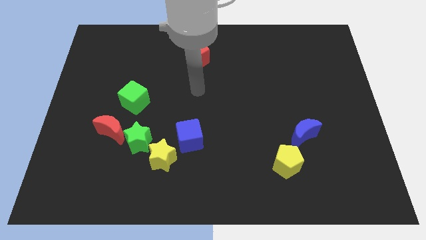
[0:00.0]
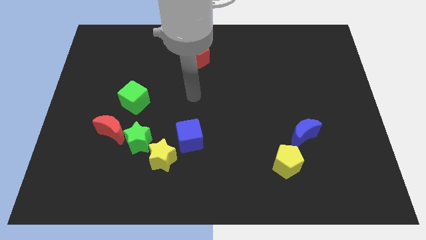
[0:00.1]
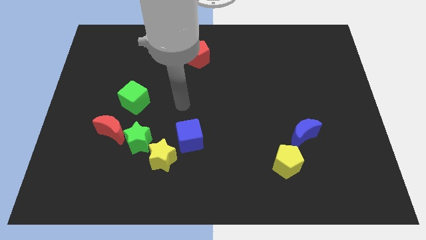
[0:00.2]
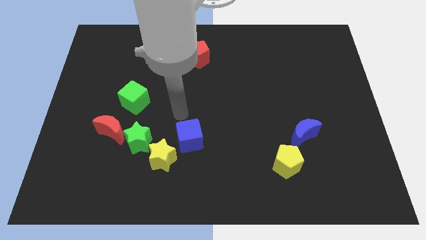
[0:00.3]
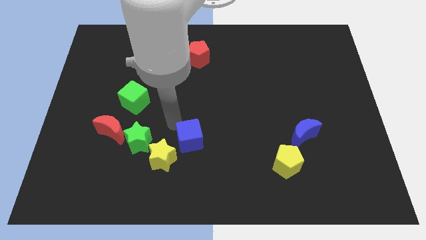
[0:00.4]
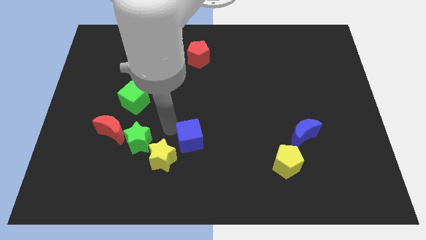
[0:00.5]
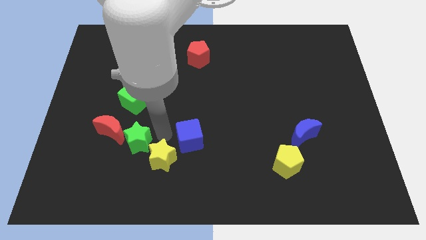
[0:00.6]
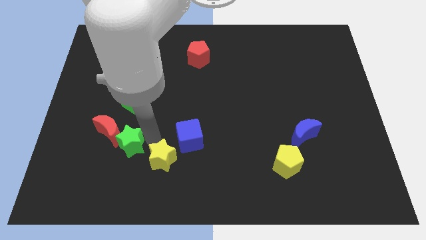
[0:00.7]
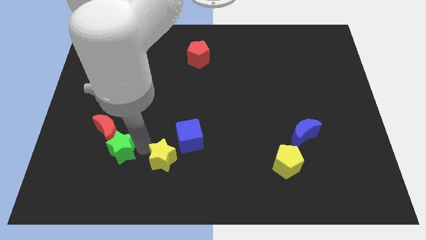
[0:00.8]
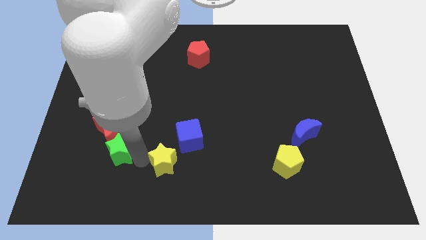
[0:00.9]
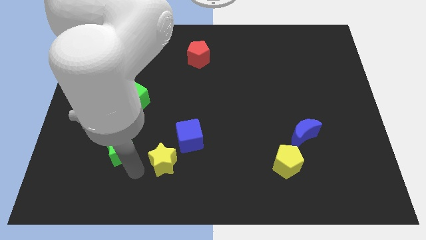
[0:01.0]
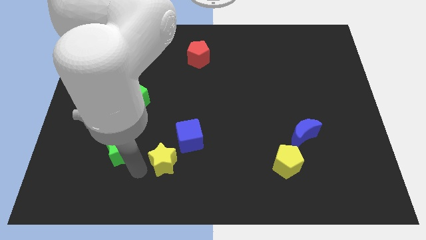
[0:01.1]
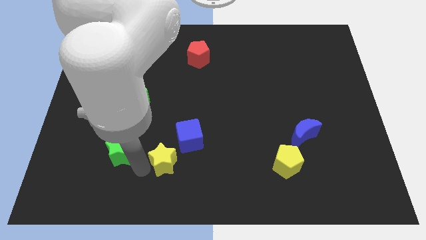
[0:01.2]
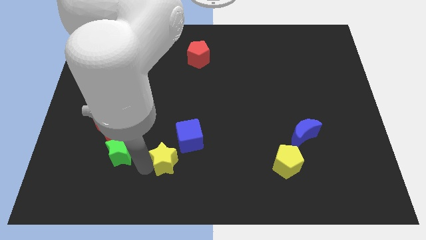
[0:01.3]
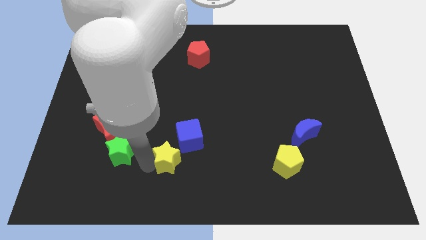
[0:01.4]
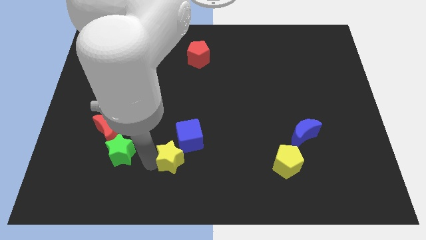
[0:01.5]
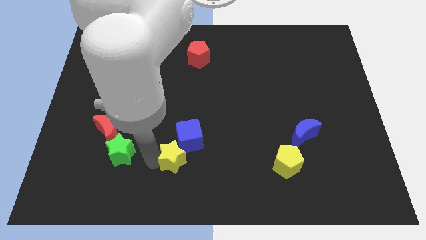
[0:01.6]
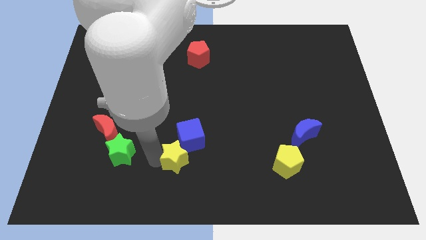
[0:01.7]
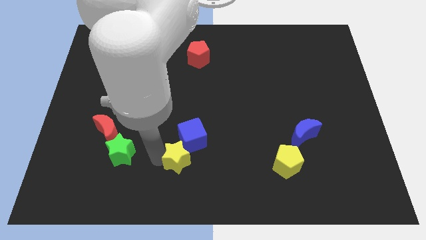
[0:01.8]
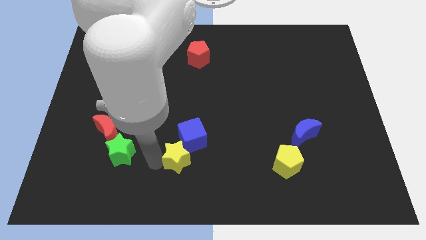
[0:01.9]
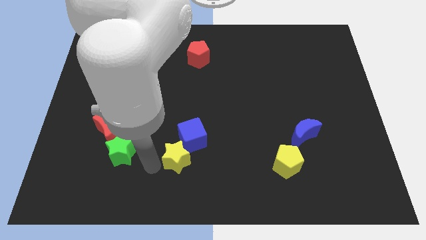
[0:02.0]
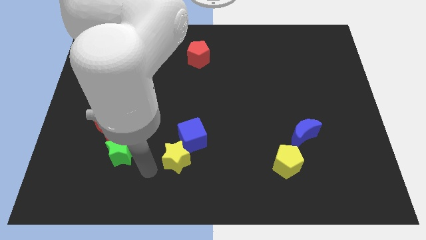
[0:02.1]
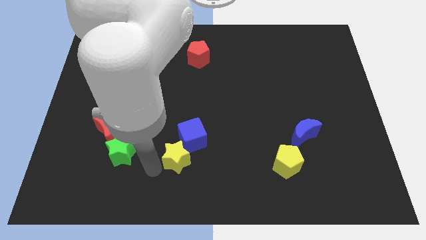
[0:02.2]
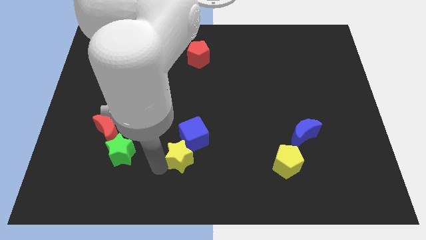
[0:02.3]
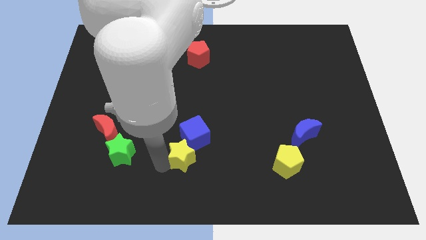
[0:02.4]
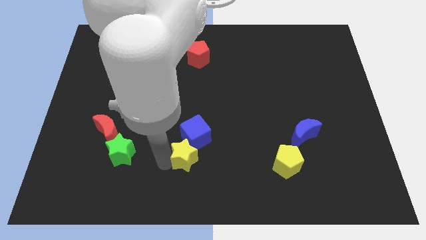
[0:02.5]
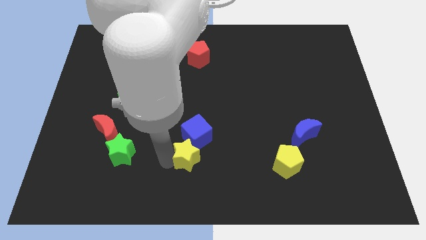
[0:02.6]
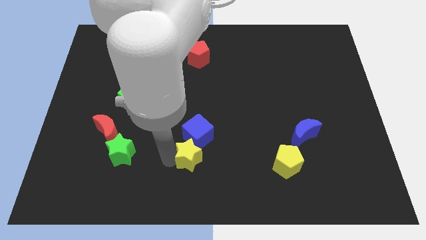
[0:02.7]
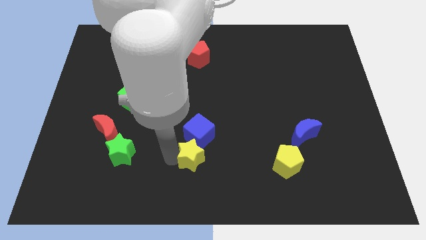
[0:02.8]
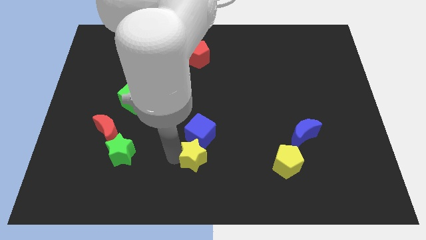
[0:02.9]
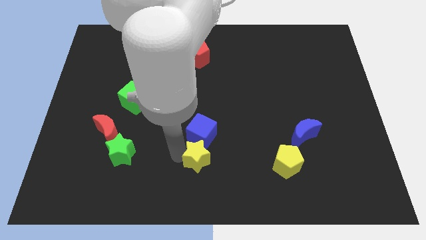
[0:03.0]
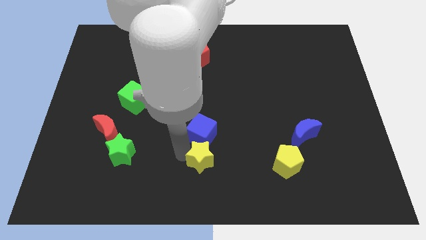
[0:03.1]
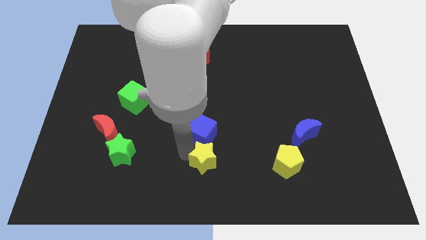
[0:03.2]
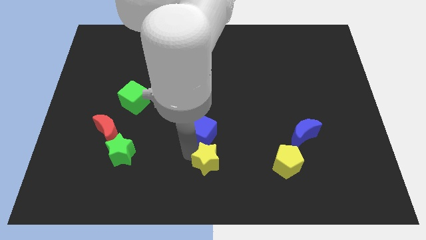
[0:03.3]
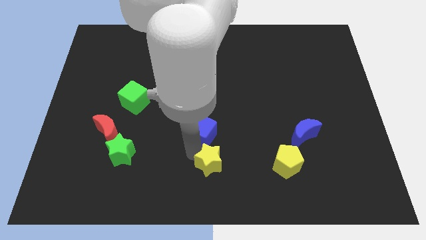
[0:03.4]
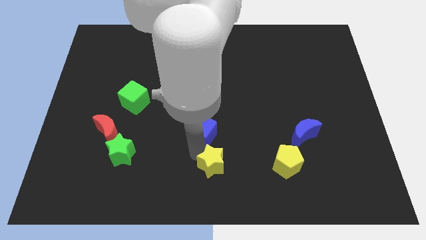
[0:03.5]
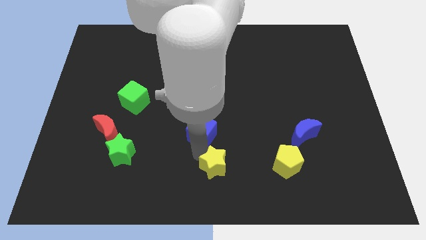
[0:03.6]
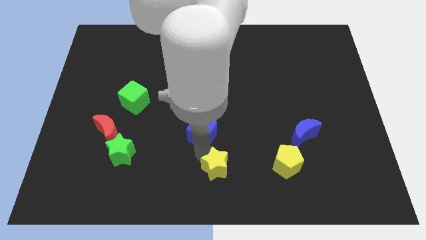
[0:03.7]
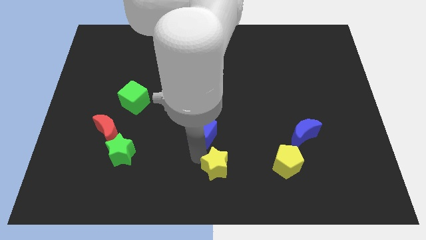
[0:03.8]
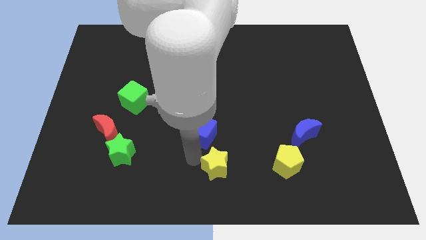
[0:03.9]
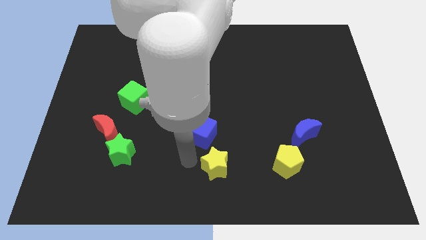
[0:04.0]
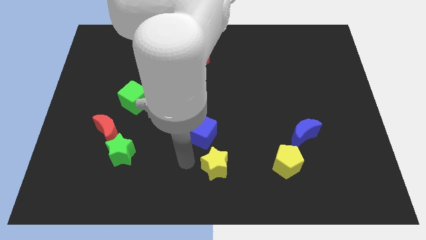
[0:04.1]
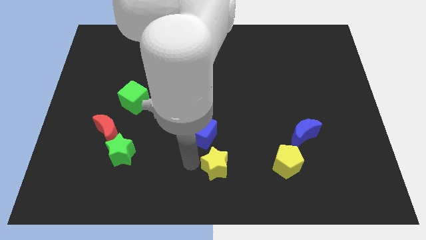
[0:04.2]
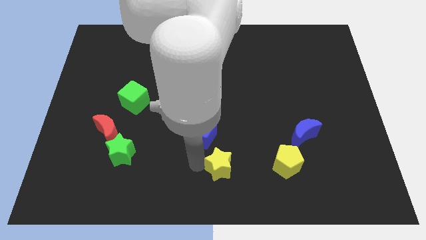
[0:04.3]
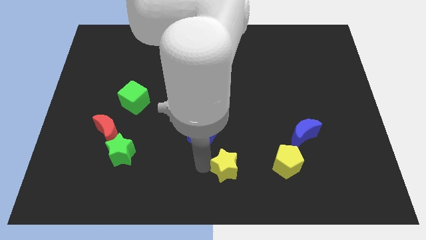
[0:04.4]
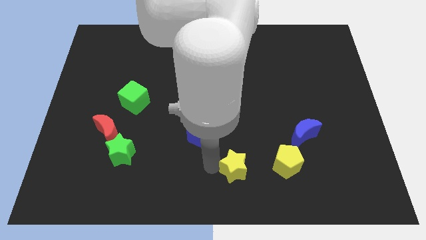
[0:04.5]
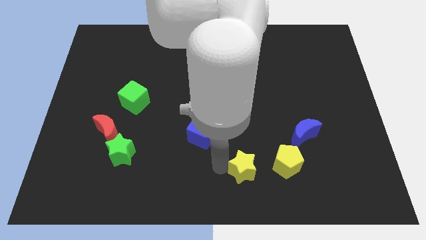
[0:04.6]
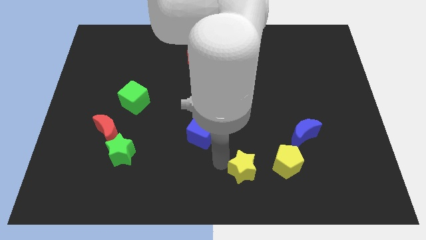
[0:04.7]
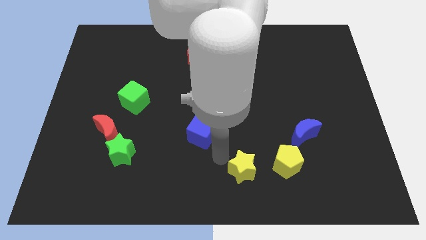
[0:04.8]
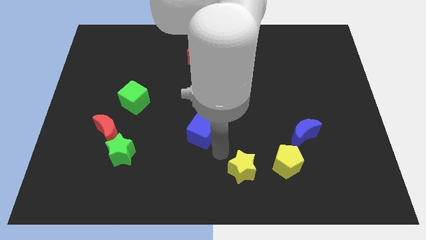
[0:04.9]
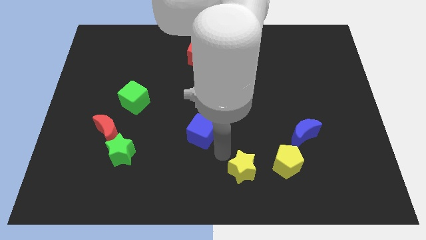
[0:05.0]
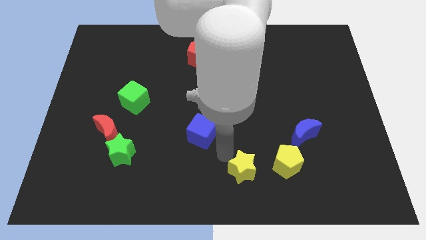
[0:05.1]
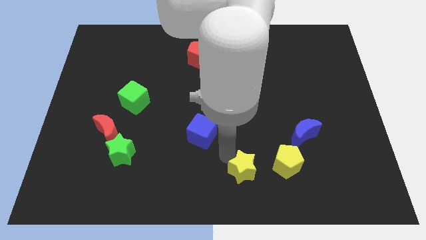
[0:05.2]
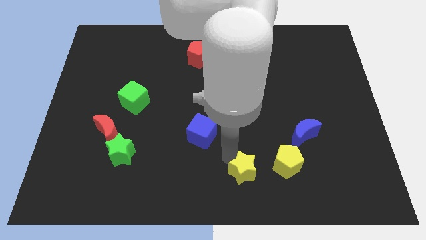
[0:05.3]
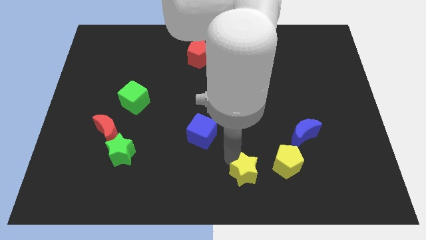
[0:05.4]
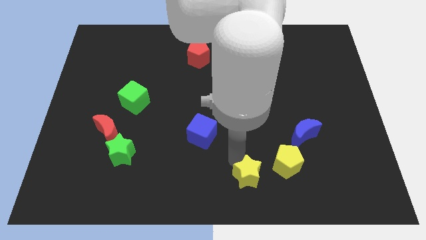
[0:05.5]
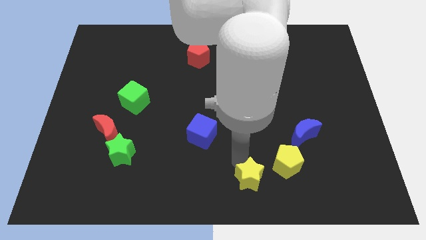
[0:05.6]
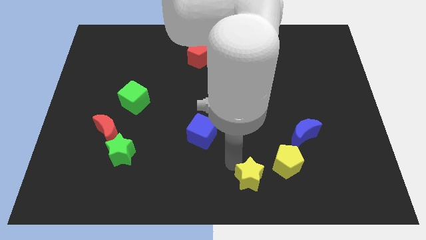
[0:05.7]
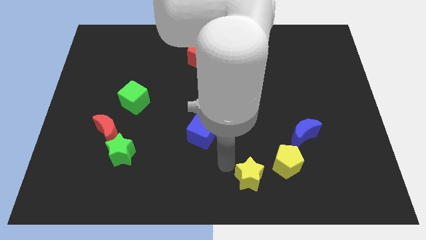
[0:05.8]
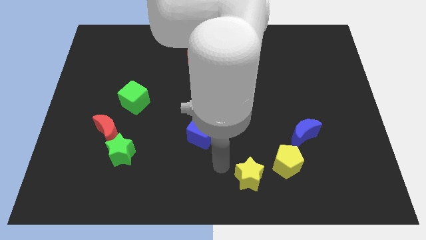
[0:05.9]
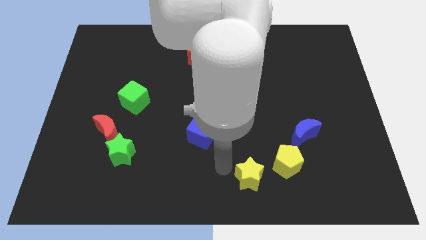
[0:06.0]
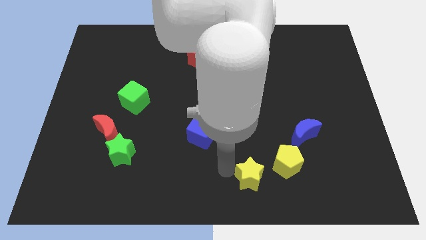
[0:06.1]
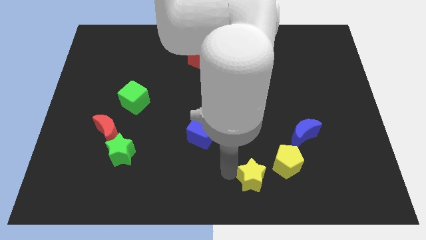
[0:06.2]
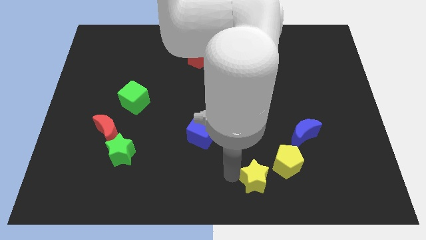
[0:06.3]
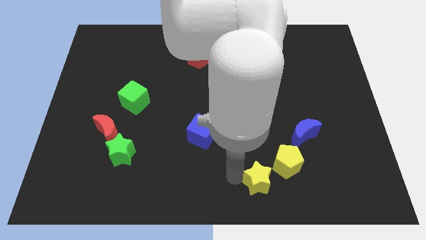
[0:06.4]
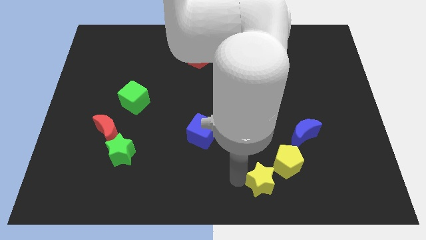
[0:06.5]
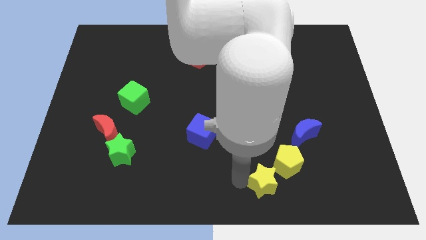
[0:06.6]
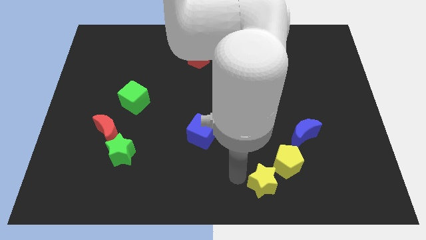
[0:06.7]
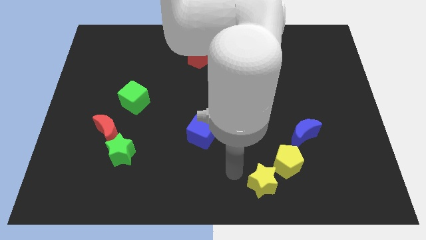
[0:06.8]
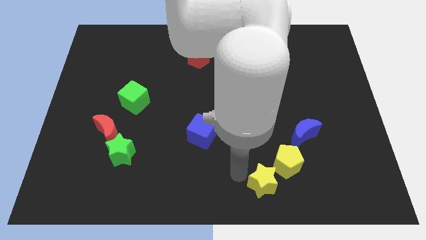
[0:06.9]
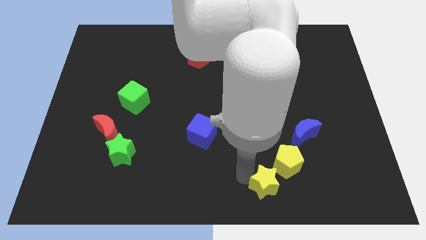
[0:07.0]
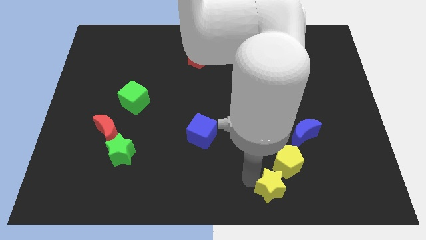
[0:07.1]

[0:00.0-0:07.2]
slide the yellow star right

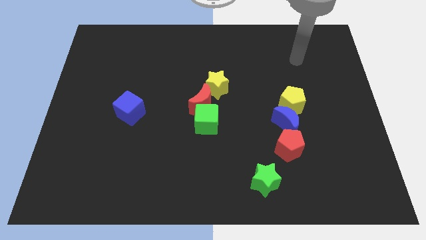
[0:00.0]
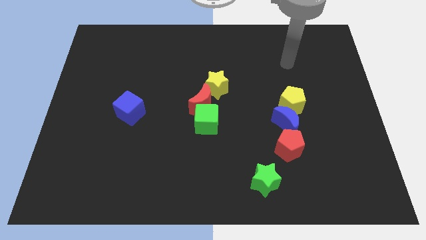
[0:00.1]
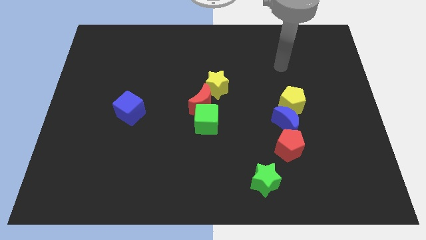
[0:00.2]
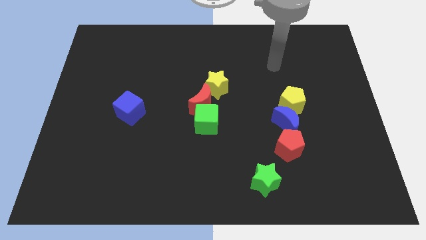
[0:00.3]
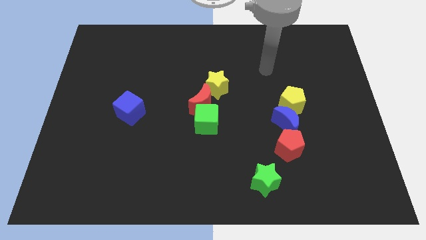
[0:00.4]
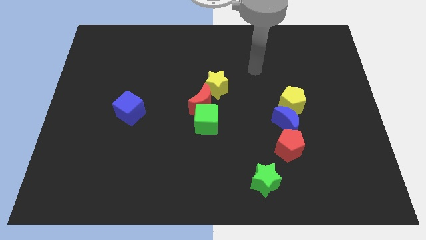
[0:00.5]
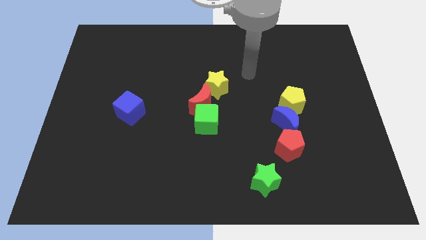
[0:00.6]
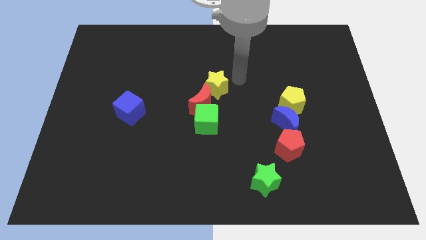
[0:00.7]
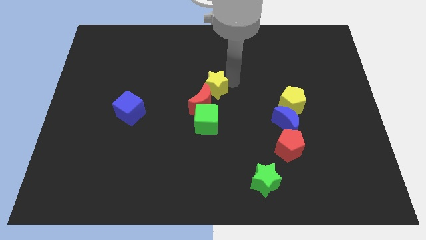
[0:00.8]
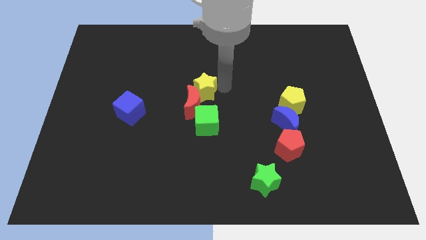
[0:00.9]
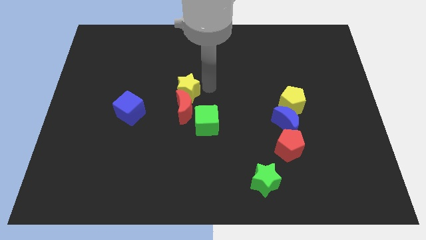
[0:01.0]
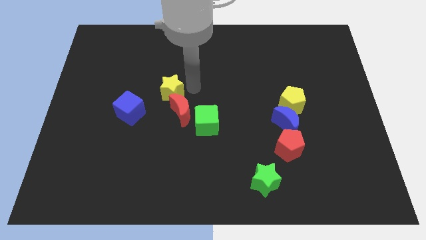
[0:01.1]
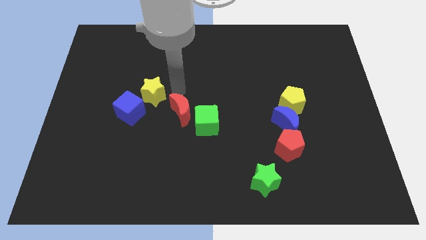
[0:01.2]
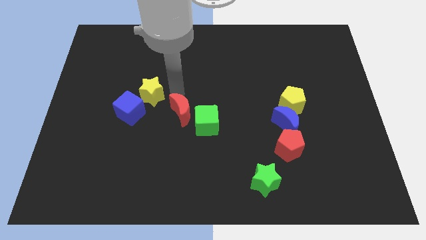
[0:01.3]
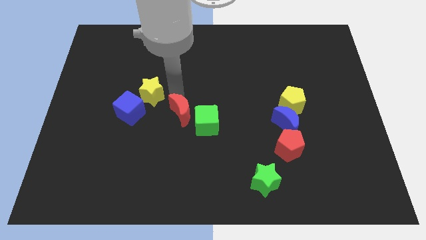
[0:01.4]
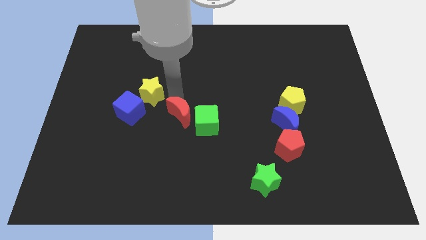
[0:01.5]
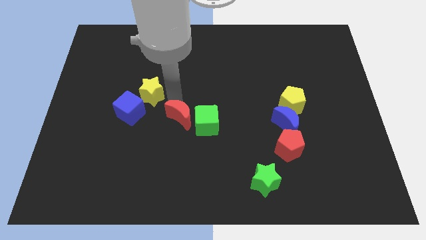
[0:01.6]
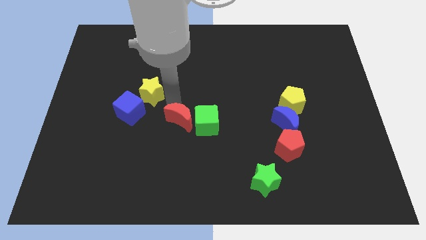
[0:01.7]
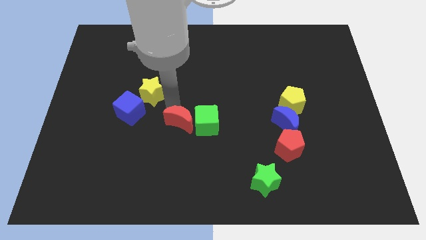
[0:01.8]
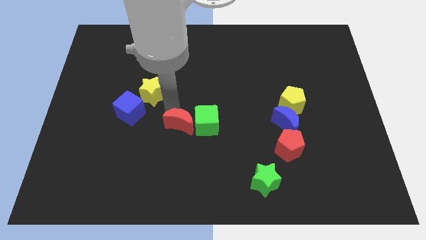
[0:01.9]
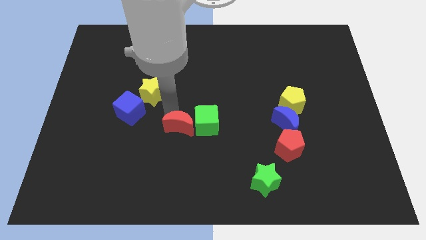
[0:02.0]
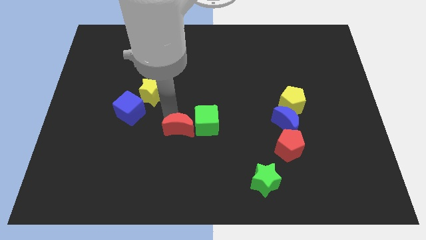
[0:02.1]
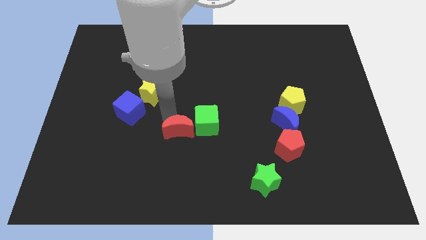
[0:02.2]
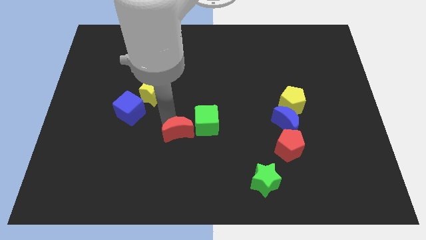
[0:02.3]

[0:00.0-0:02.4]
move the red moon a little bit downwards
